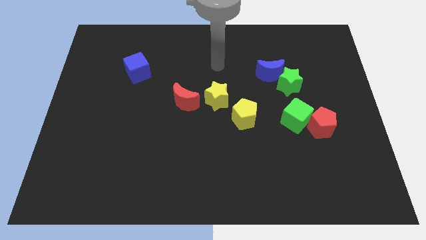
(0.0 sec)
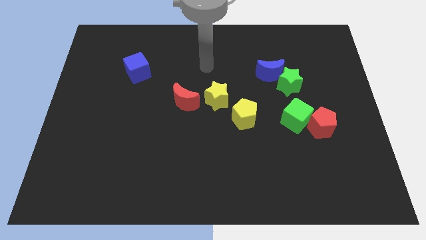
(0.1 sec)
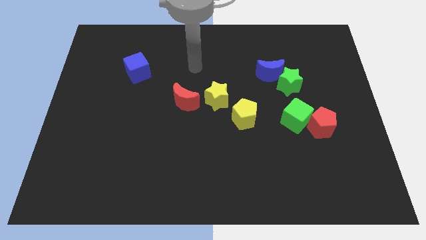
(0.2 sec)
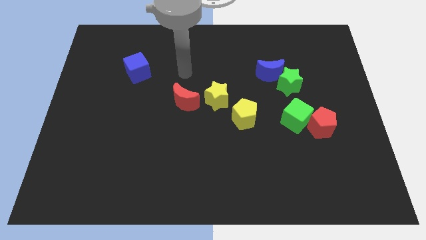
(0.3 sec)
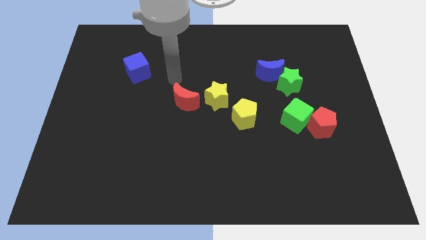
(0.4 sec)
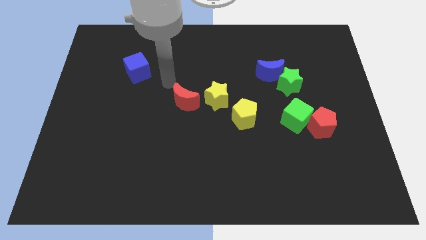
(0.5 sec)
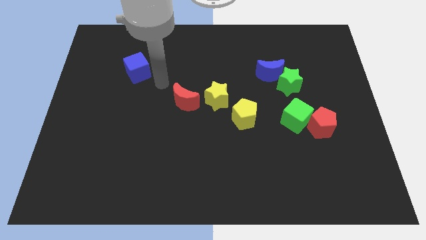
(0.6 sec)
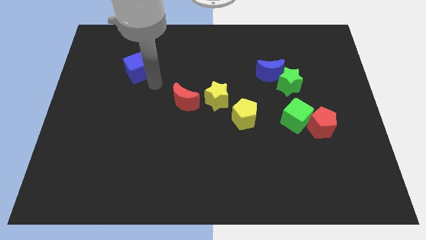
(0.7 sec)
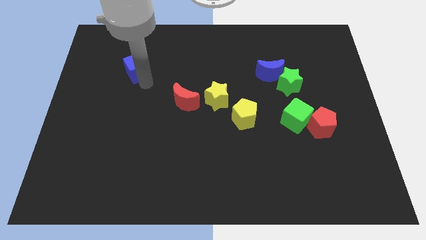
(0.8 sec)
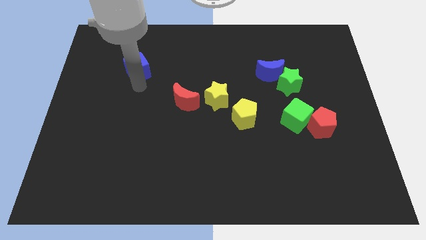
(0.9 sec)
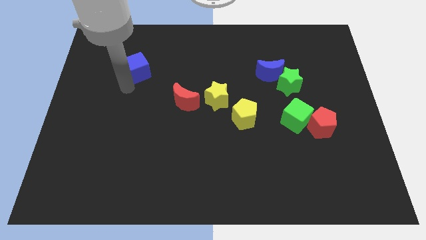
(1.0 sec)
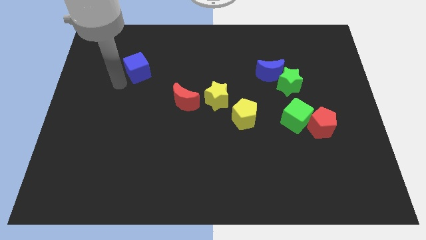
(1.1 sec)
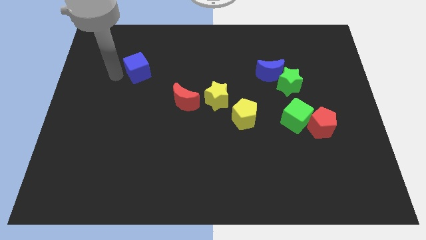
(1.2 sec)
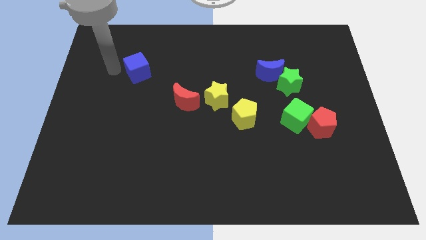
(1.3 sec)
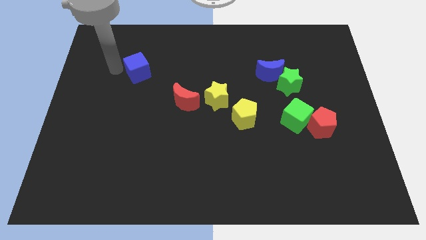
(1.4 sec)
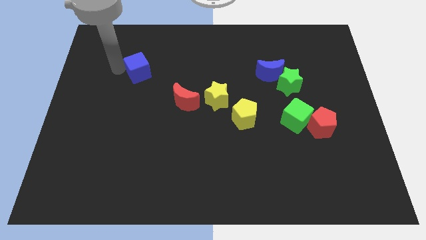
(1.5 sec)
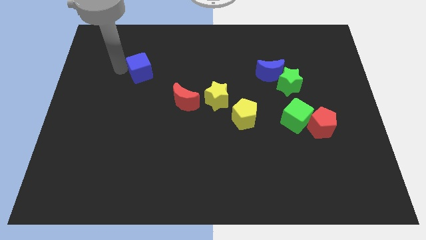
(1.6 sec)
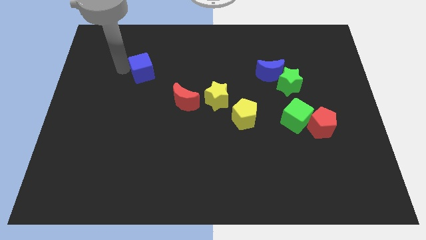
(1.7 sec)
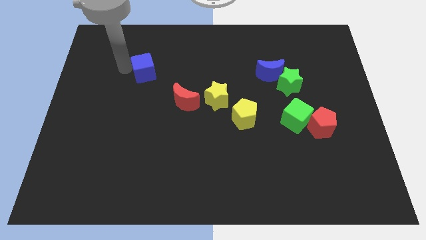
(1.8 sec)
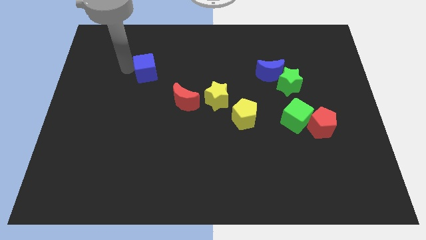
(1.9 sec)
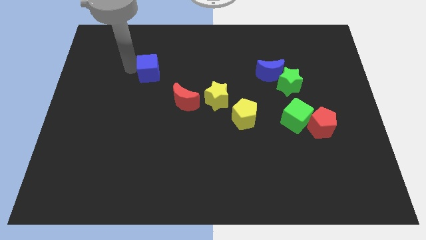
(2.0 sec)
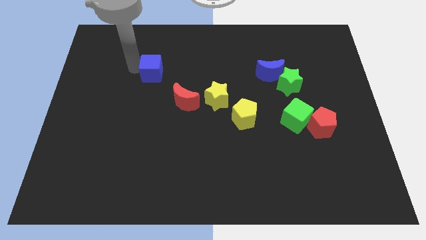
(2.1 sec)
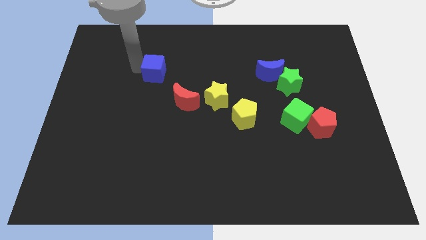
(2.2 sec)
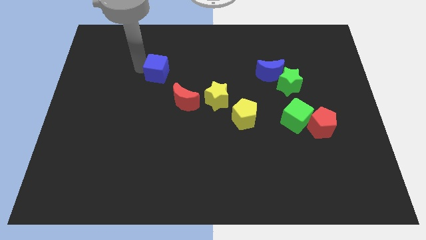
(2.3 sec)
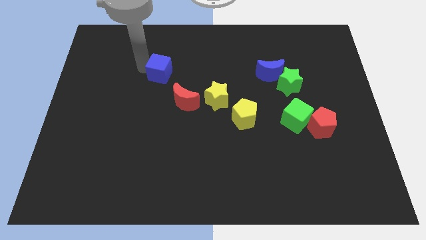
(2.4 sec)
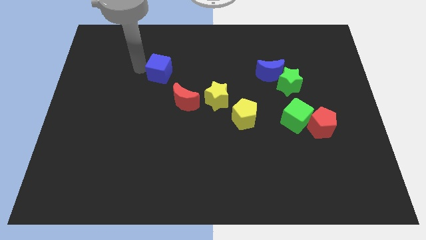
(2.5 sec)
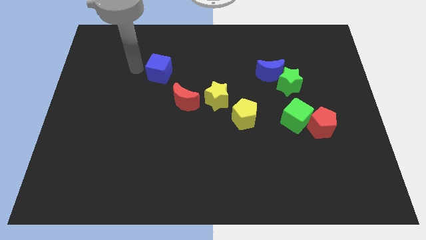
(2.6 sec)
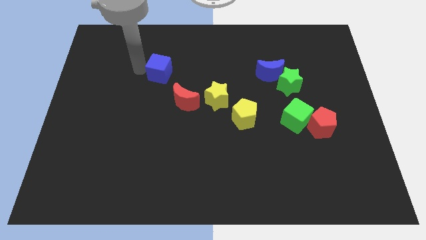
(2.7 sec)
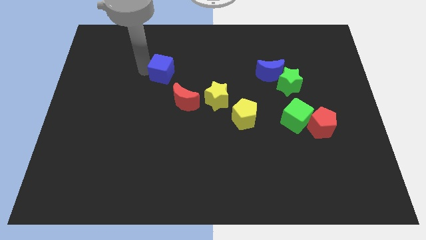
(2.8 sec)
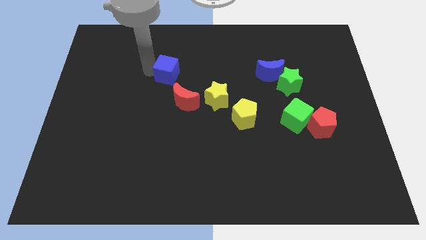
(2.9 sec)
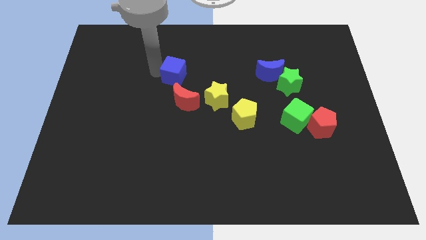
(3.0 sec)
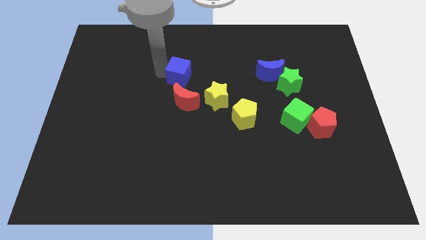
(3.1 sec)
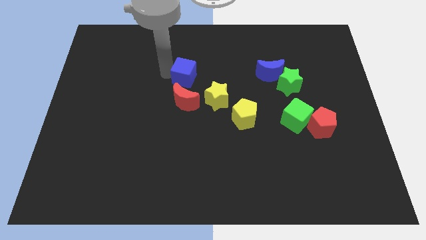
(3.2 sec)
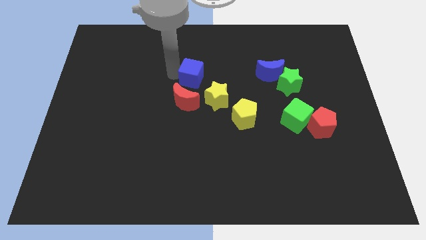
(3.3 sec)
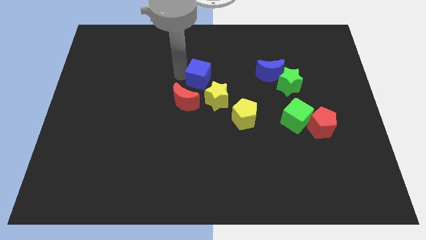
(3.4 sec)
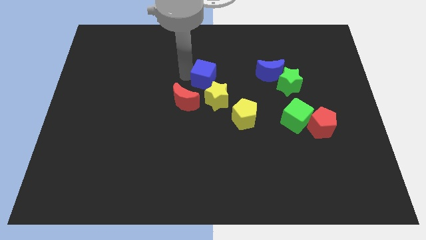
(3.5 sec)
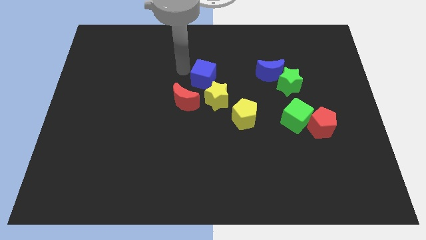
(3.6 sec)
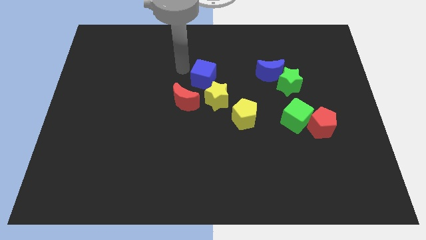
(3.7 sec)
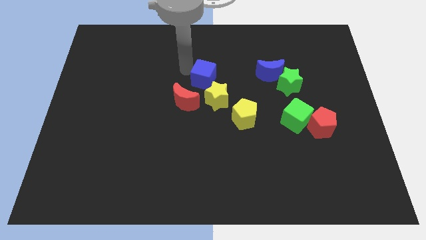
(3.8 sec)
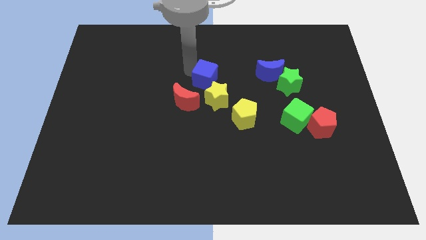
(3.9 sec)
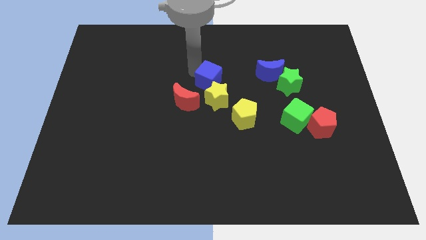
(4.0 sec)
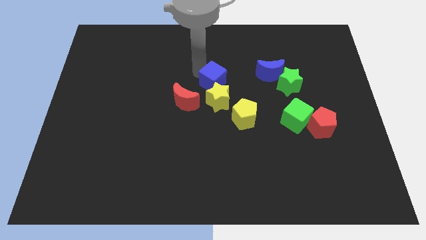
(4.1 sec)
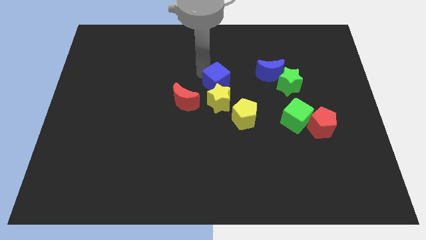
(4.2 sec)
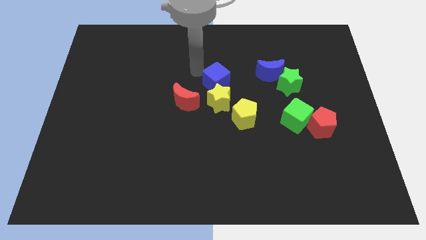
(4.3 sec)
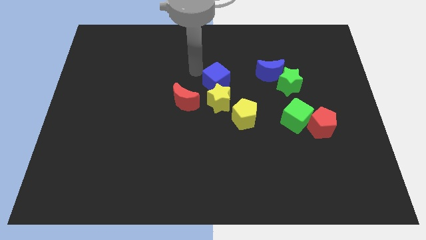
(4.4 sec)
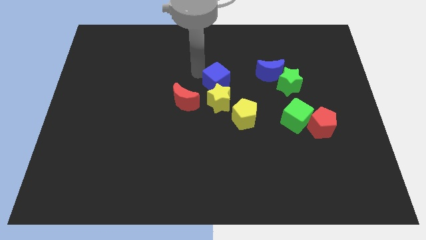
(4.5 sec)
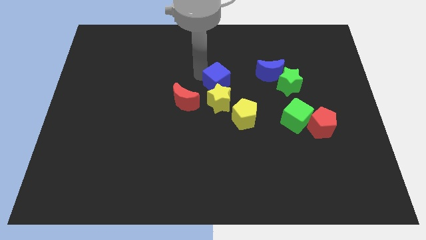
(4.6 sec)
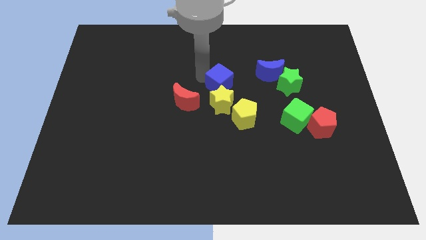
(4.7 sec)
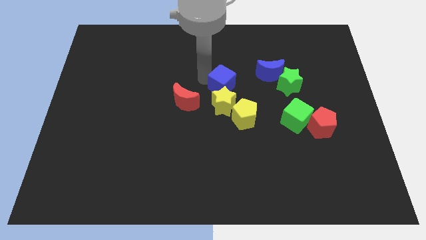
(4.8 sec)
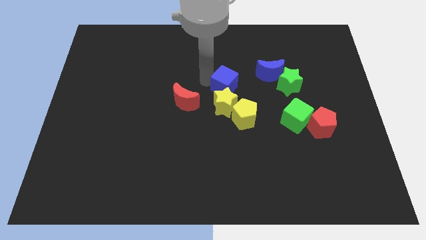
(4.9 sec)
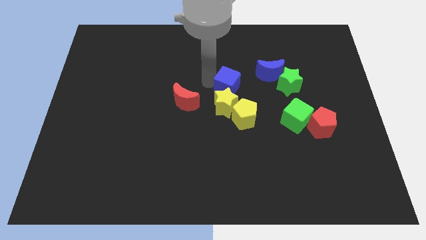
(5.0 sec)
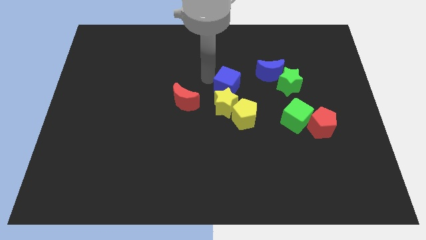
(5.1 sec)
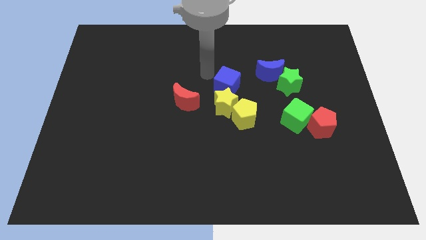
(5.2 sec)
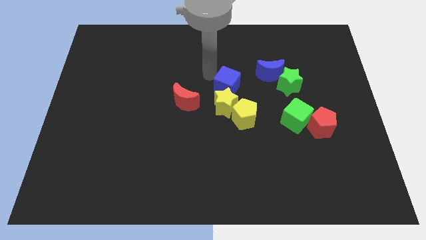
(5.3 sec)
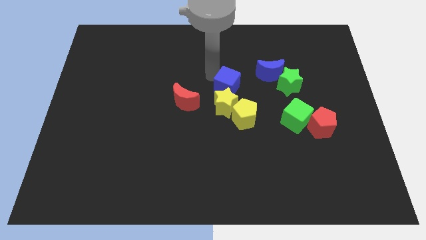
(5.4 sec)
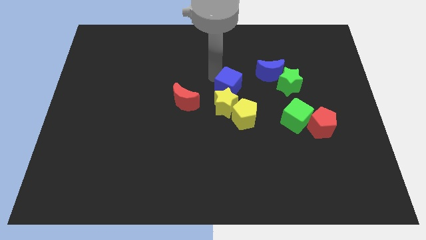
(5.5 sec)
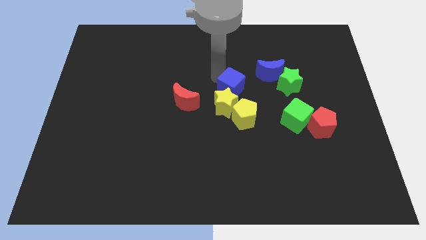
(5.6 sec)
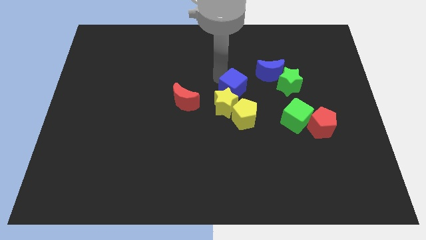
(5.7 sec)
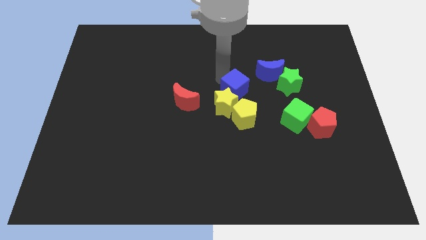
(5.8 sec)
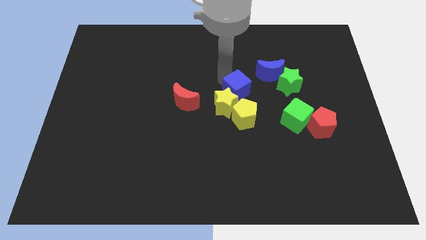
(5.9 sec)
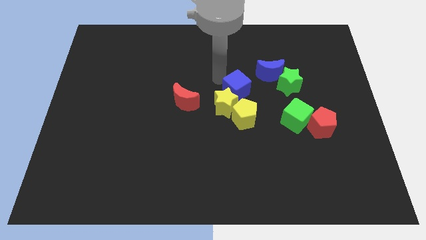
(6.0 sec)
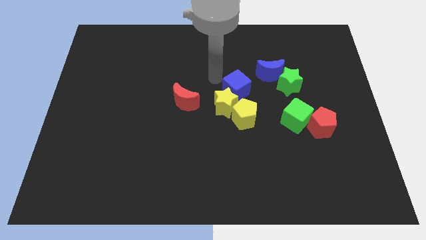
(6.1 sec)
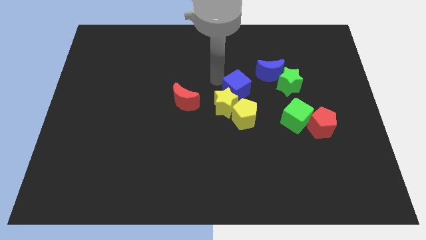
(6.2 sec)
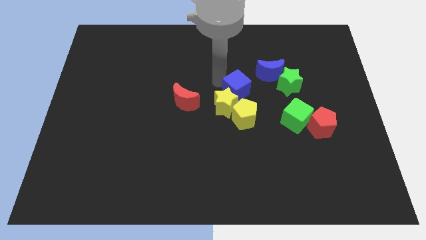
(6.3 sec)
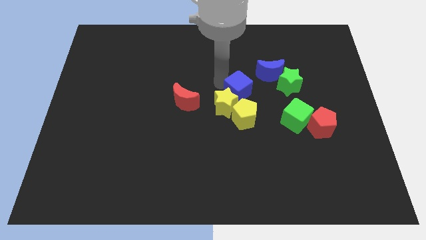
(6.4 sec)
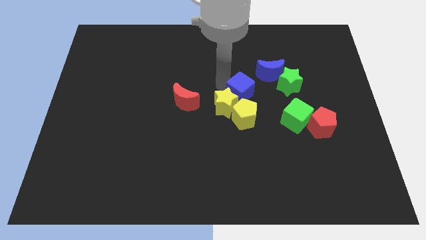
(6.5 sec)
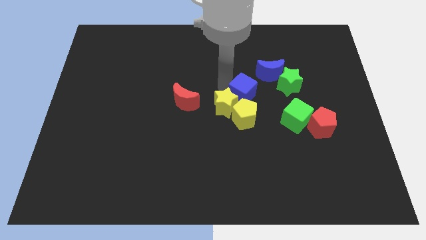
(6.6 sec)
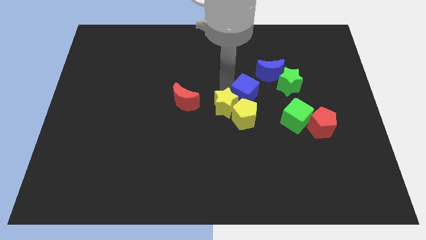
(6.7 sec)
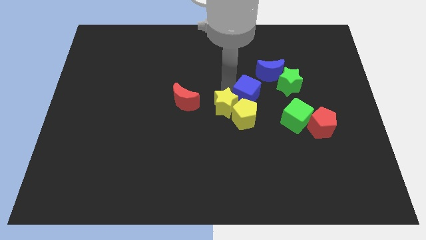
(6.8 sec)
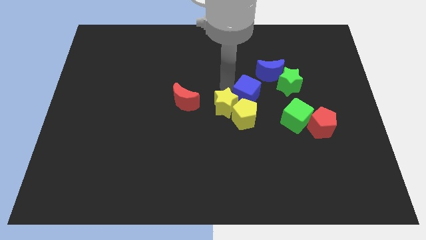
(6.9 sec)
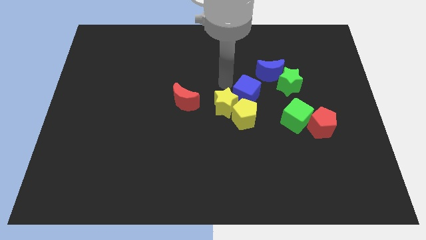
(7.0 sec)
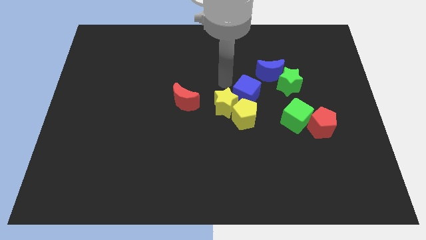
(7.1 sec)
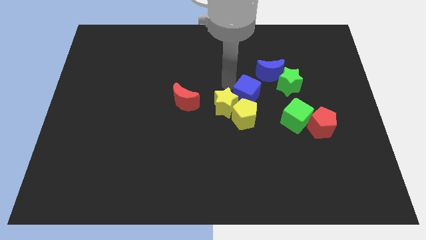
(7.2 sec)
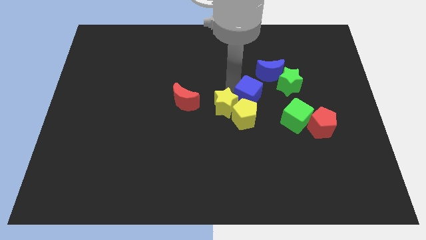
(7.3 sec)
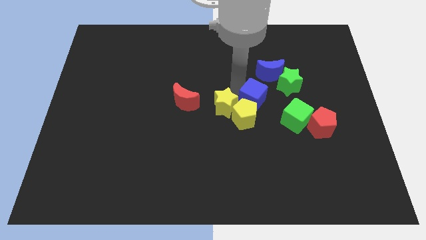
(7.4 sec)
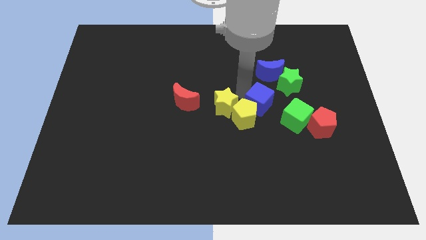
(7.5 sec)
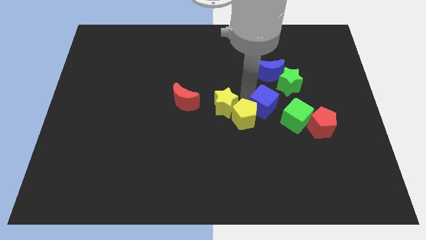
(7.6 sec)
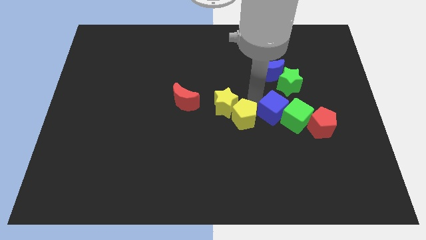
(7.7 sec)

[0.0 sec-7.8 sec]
put the blue cube to the green cube
